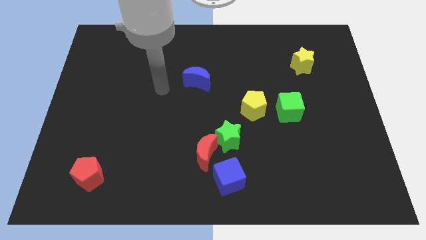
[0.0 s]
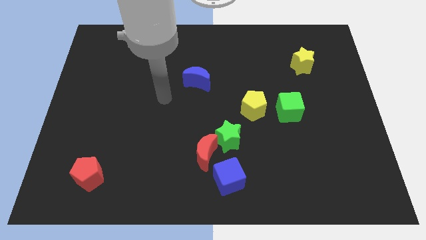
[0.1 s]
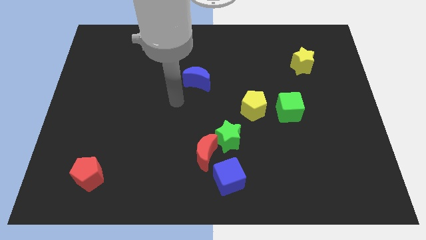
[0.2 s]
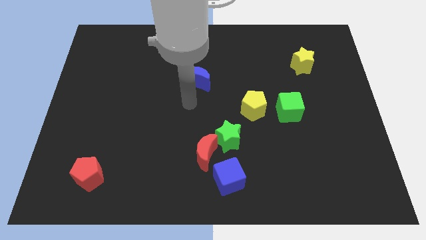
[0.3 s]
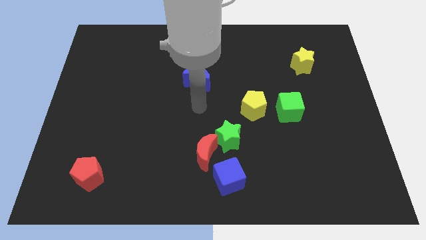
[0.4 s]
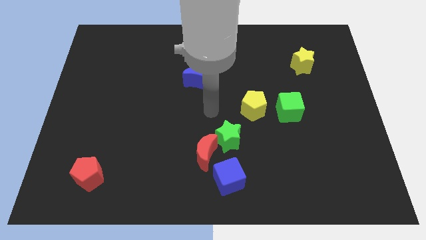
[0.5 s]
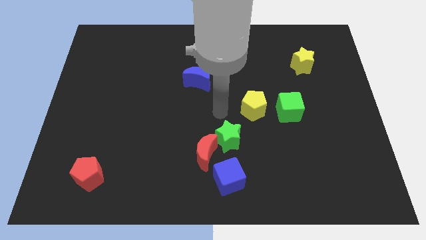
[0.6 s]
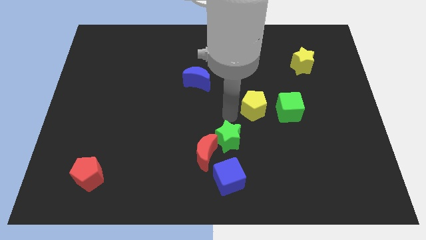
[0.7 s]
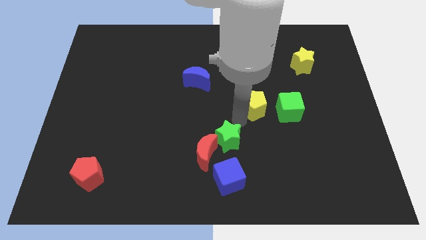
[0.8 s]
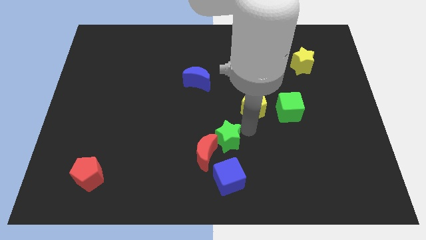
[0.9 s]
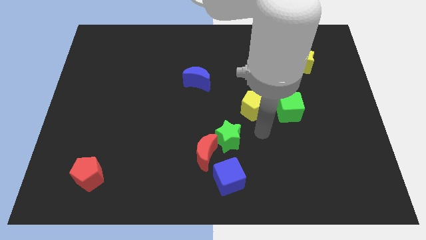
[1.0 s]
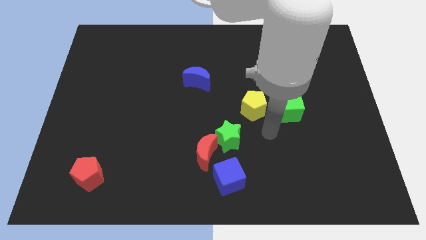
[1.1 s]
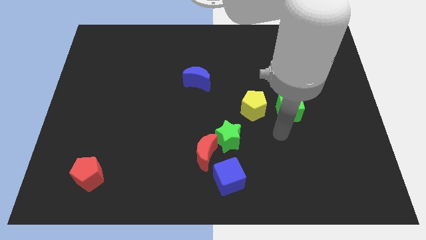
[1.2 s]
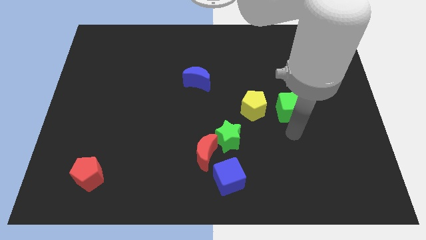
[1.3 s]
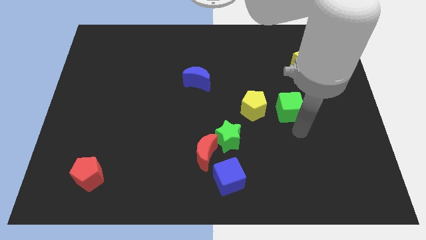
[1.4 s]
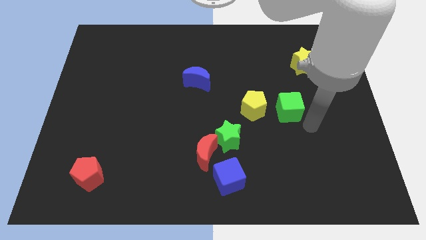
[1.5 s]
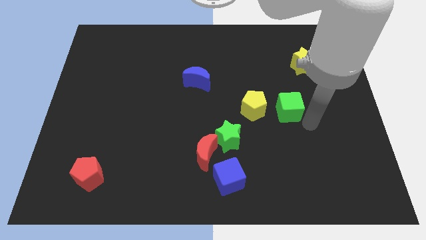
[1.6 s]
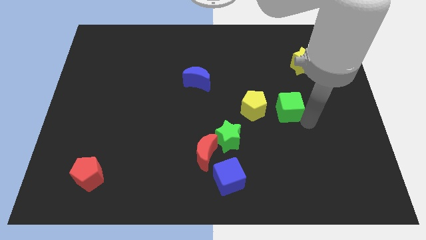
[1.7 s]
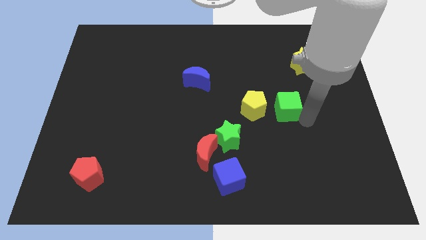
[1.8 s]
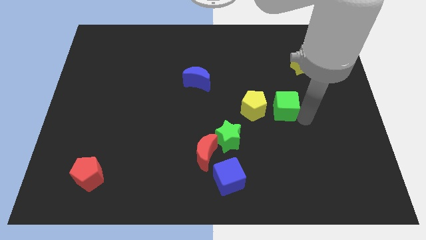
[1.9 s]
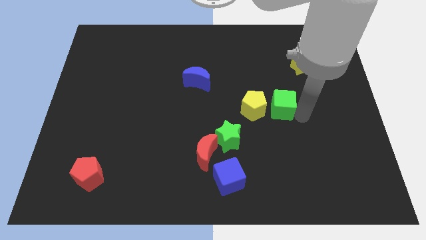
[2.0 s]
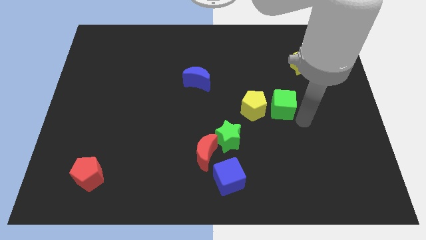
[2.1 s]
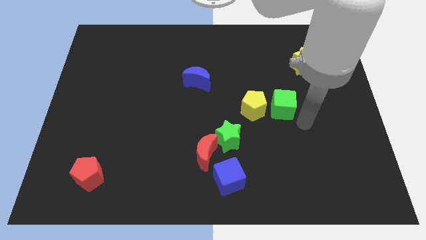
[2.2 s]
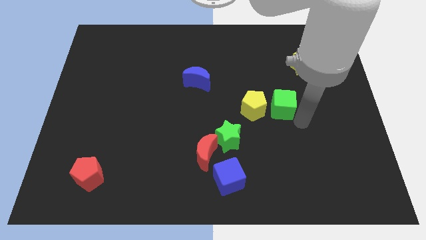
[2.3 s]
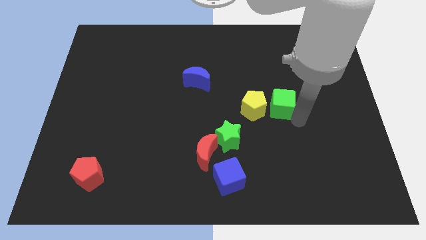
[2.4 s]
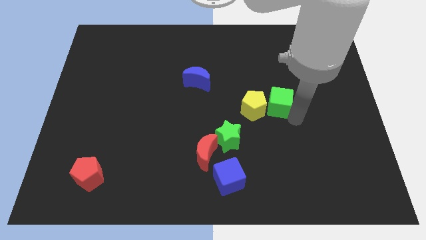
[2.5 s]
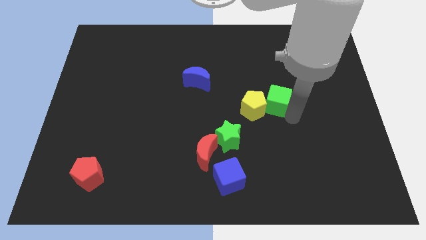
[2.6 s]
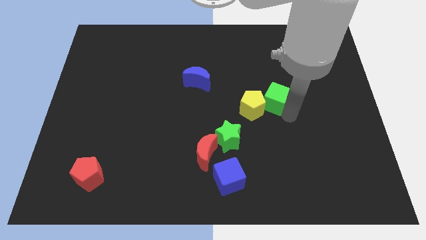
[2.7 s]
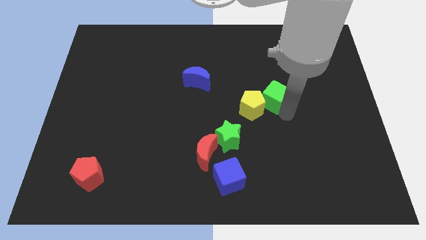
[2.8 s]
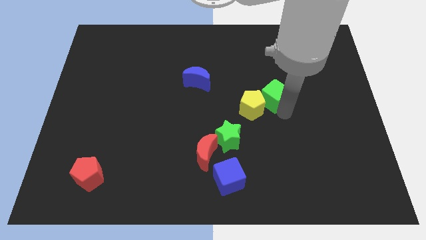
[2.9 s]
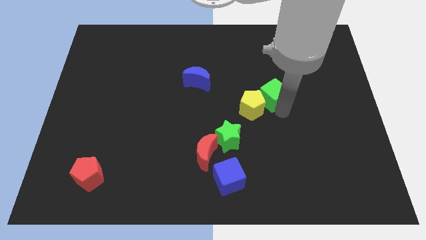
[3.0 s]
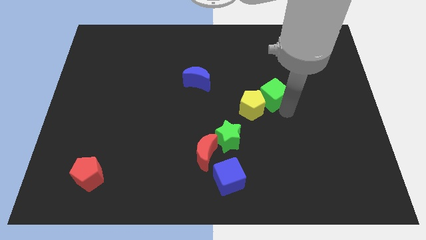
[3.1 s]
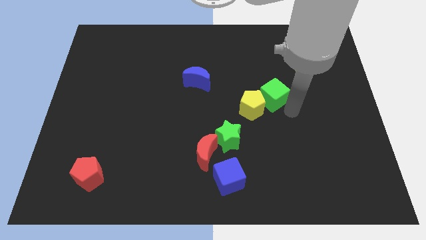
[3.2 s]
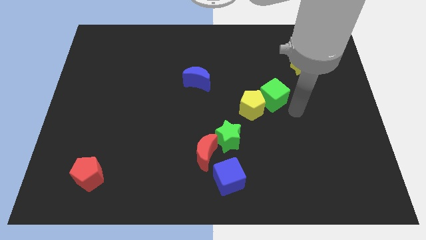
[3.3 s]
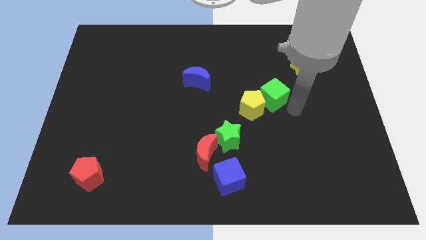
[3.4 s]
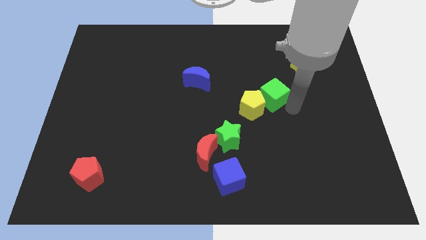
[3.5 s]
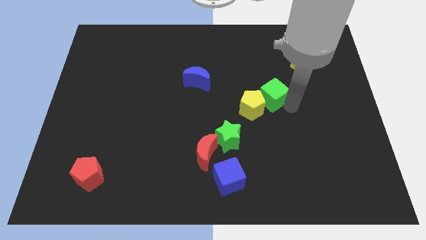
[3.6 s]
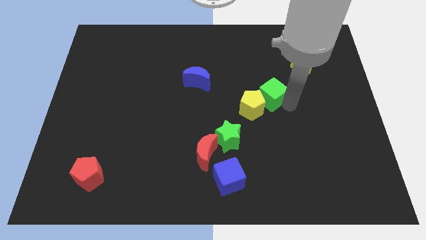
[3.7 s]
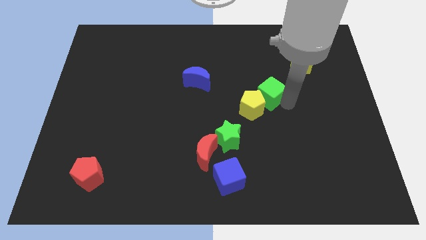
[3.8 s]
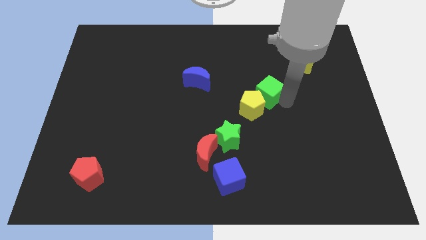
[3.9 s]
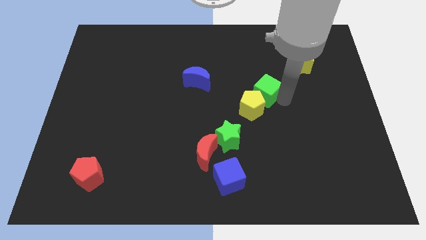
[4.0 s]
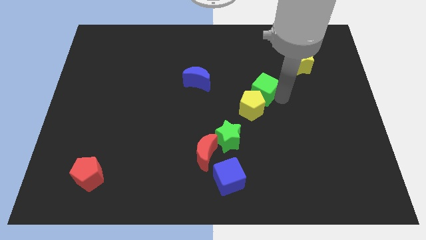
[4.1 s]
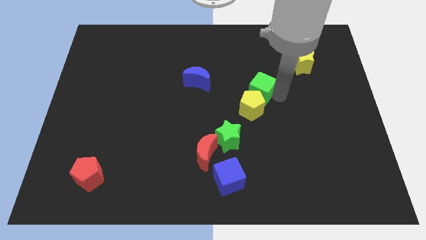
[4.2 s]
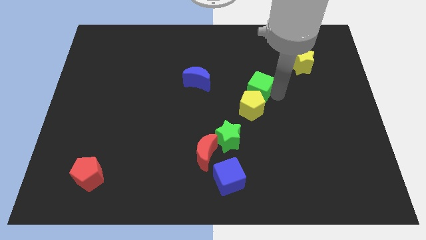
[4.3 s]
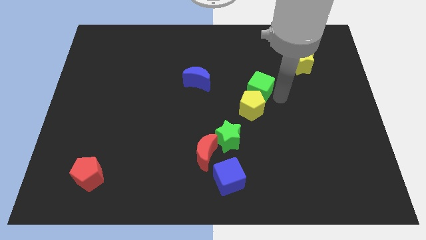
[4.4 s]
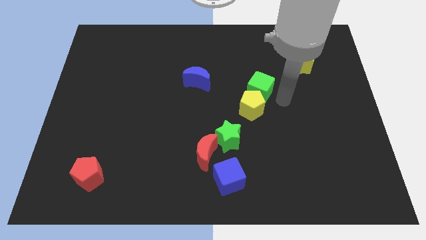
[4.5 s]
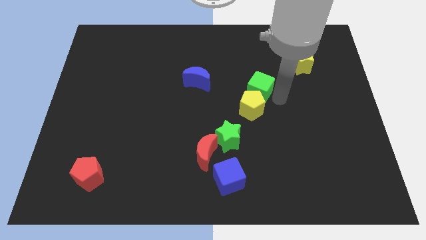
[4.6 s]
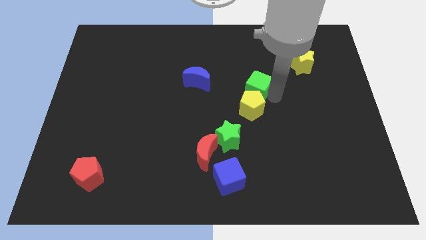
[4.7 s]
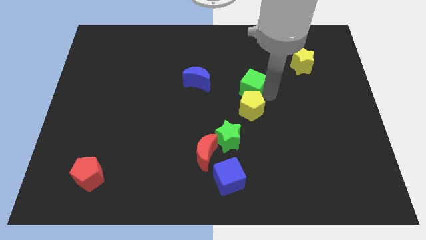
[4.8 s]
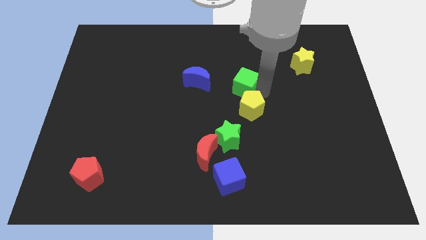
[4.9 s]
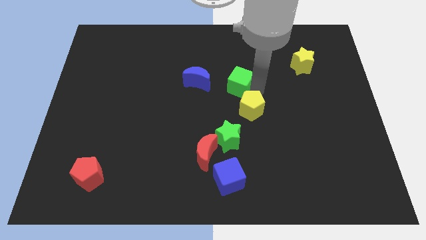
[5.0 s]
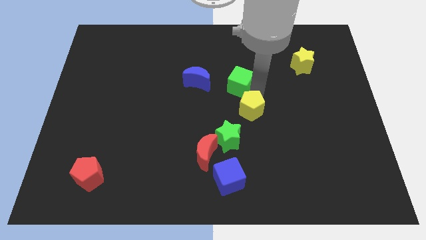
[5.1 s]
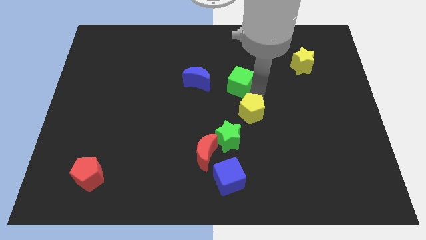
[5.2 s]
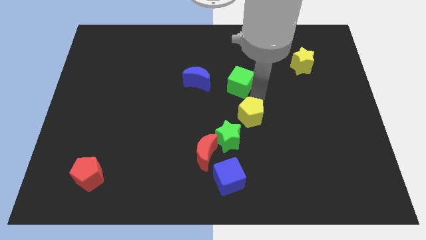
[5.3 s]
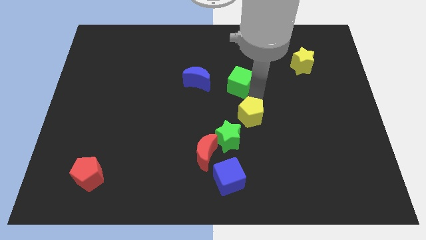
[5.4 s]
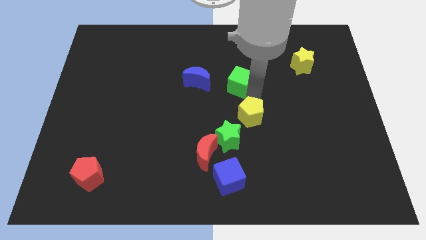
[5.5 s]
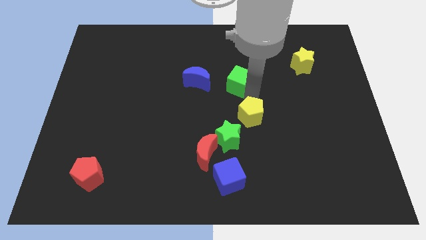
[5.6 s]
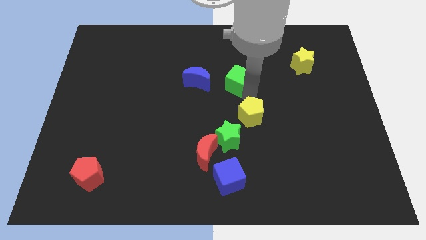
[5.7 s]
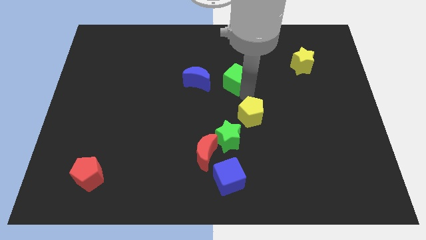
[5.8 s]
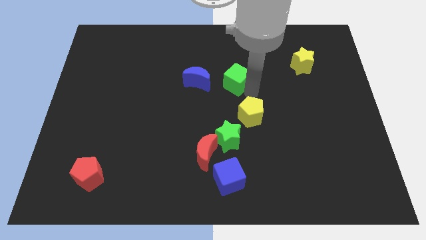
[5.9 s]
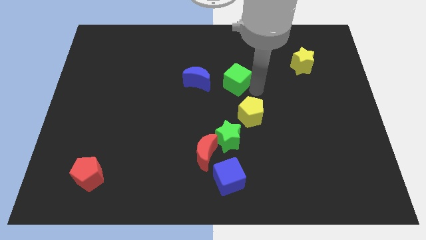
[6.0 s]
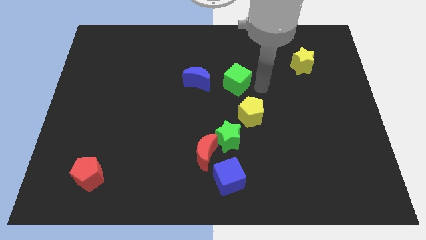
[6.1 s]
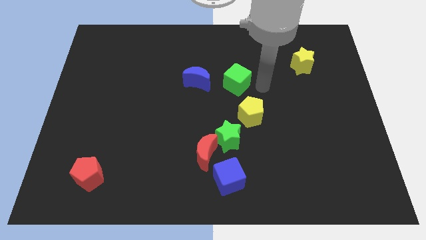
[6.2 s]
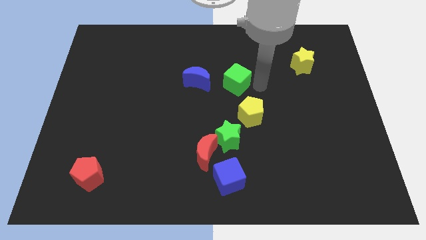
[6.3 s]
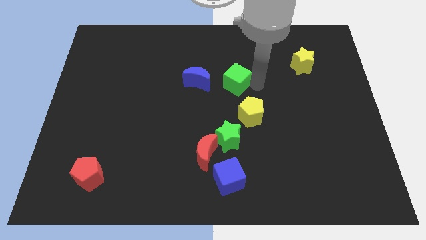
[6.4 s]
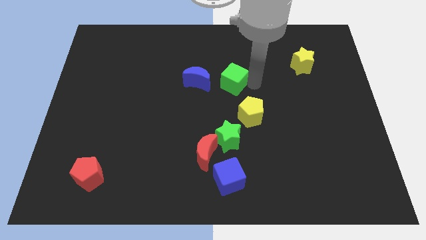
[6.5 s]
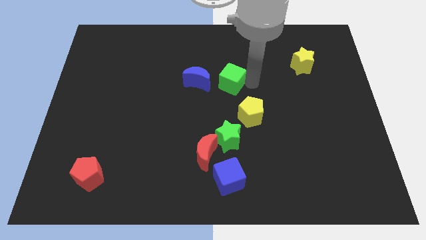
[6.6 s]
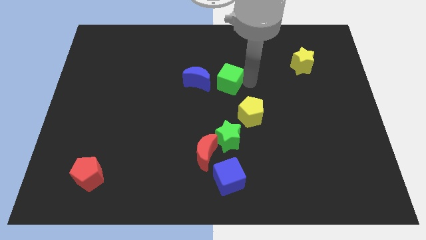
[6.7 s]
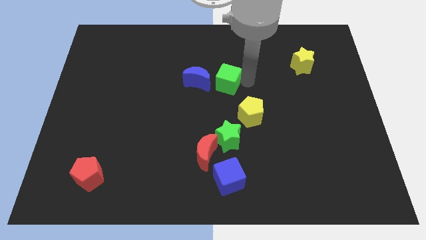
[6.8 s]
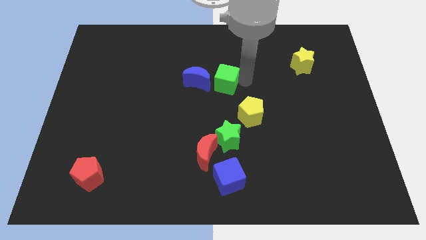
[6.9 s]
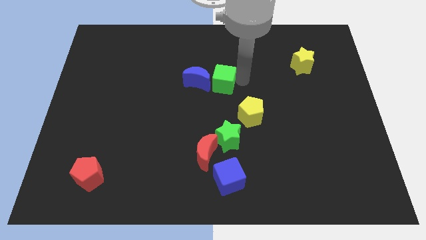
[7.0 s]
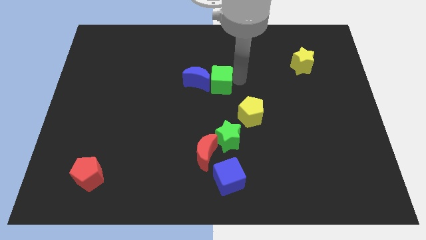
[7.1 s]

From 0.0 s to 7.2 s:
put the green cube towards the blue moon

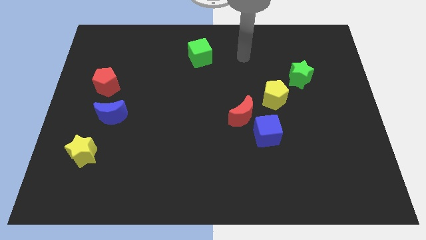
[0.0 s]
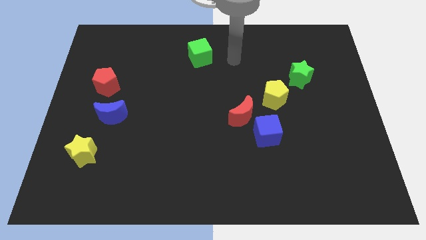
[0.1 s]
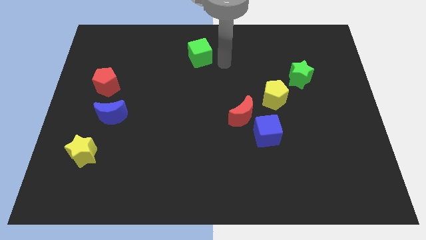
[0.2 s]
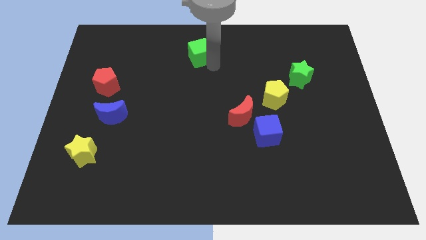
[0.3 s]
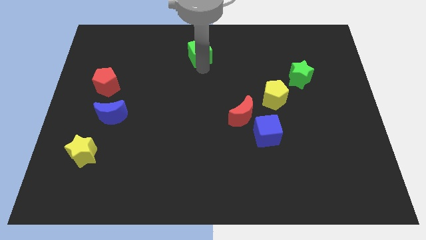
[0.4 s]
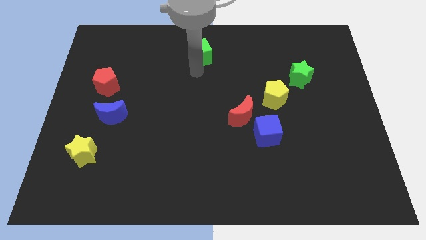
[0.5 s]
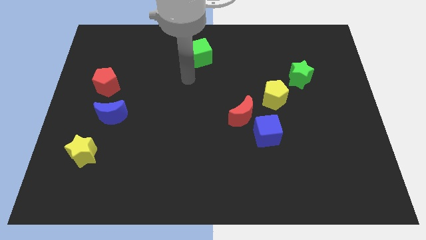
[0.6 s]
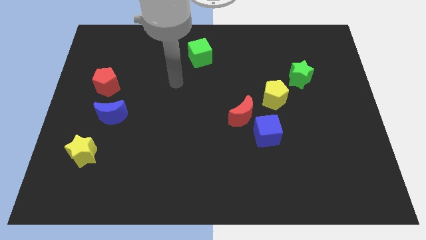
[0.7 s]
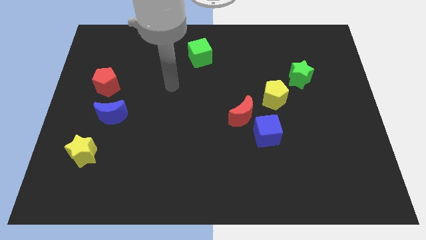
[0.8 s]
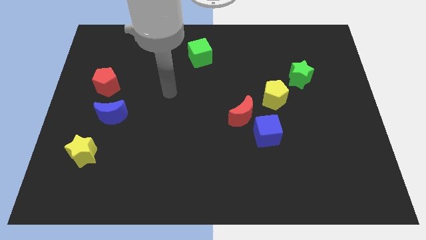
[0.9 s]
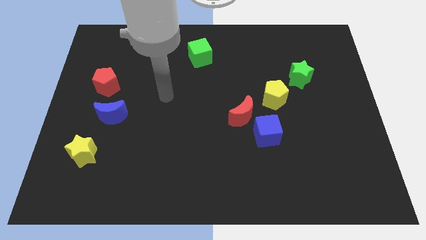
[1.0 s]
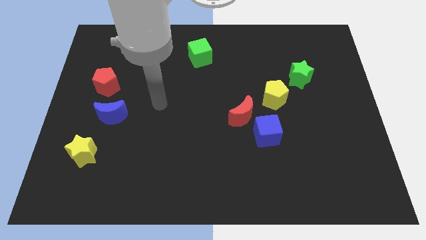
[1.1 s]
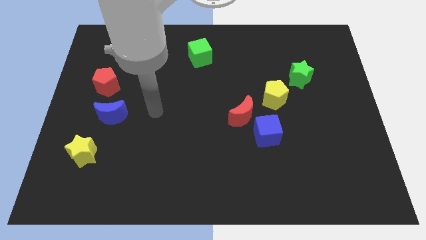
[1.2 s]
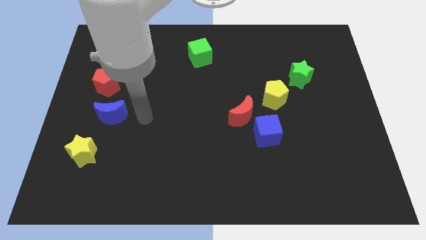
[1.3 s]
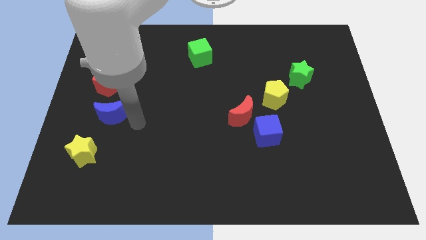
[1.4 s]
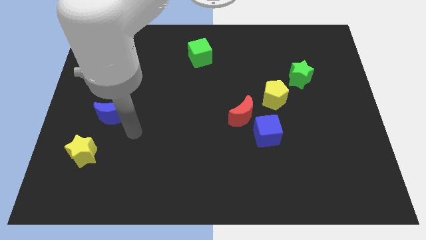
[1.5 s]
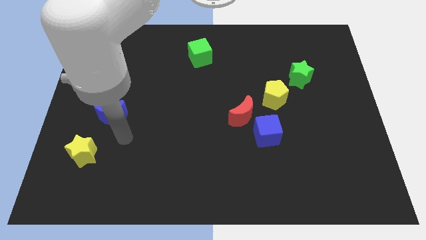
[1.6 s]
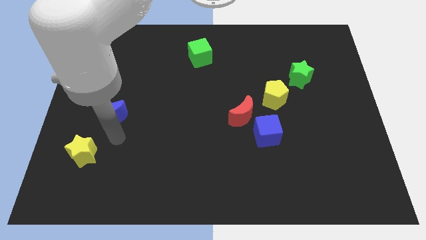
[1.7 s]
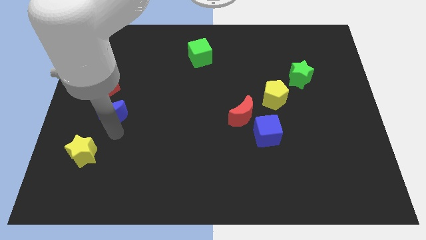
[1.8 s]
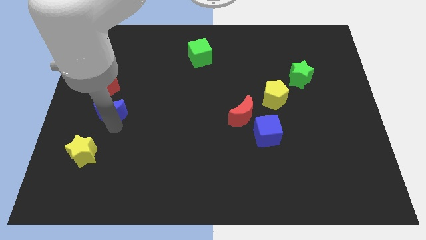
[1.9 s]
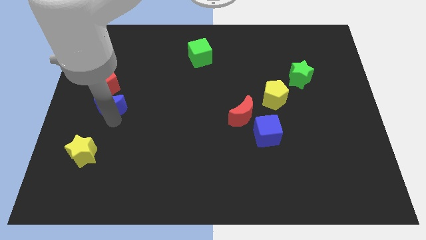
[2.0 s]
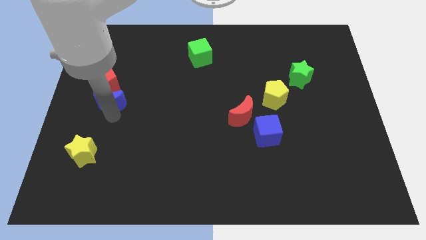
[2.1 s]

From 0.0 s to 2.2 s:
put the blue moon to the red pentagon
